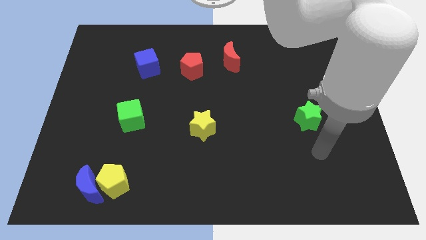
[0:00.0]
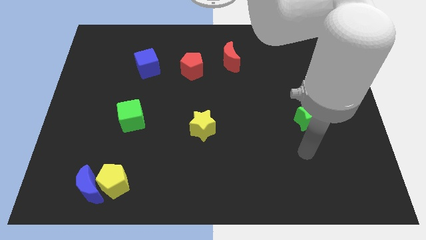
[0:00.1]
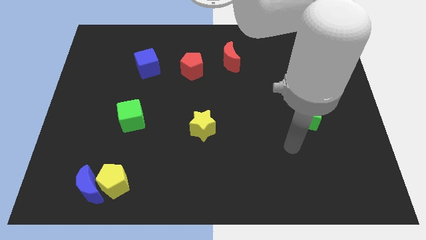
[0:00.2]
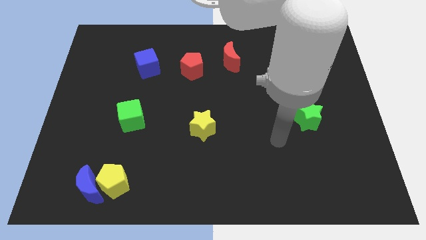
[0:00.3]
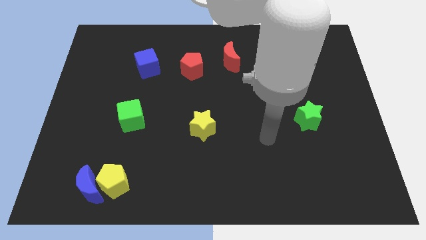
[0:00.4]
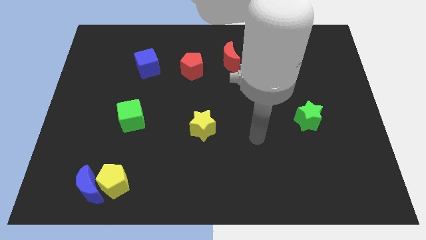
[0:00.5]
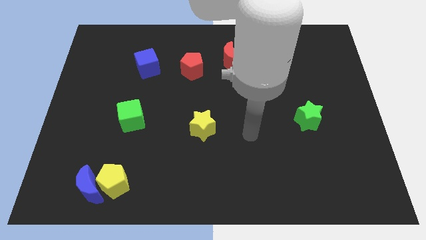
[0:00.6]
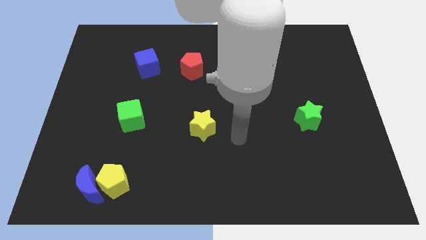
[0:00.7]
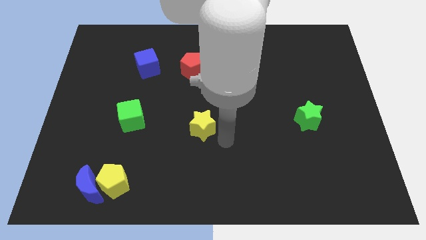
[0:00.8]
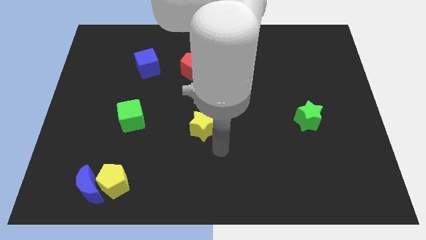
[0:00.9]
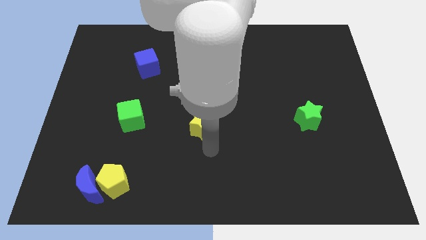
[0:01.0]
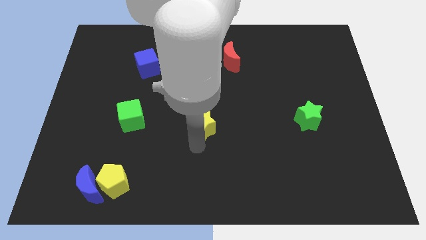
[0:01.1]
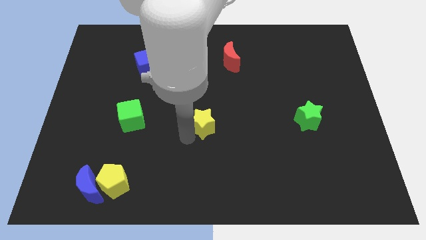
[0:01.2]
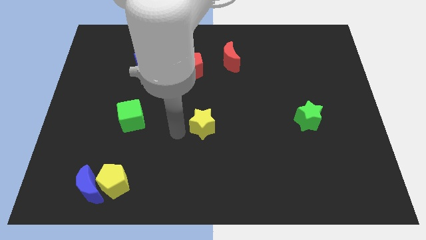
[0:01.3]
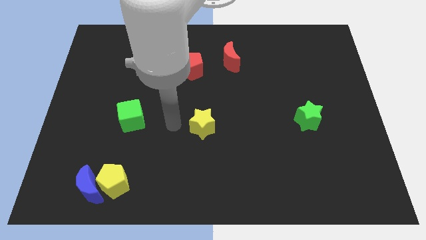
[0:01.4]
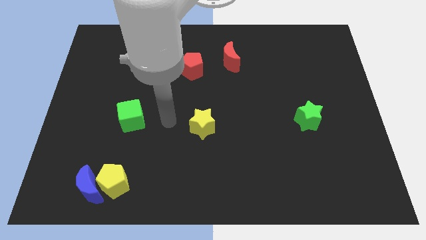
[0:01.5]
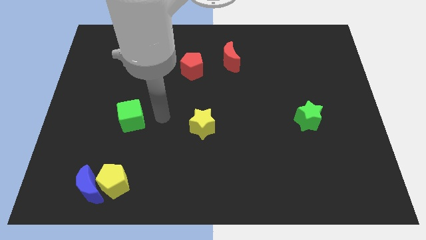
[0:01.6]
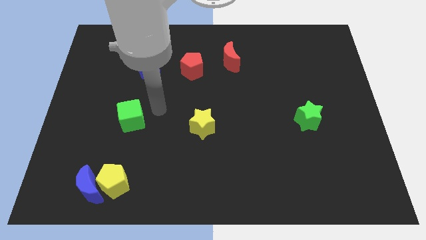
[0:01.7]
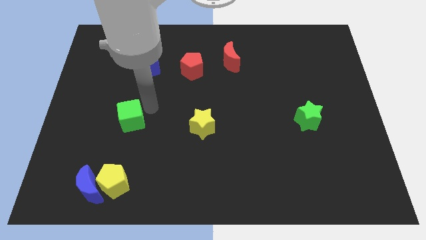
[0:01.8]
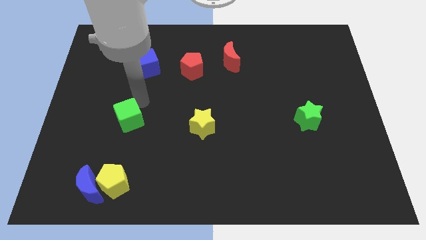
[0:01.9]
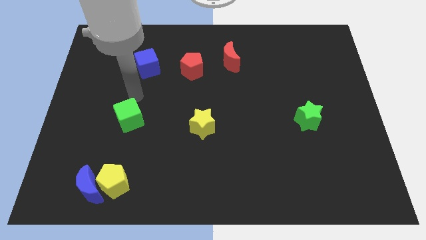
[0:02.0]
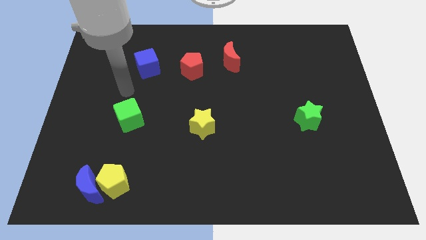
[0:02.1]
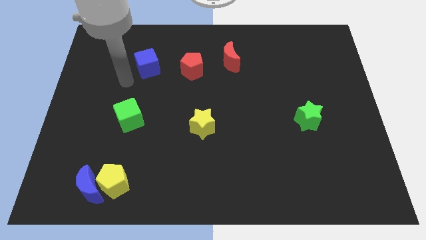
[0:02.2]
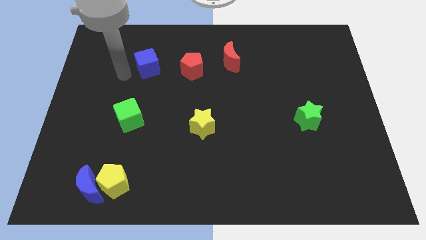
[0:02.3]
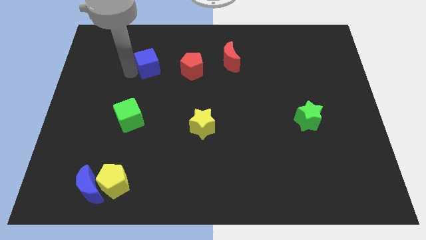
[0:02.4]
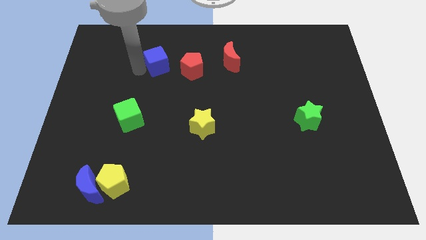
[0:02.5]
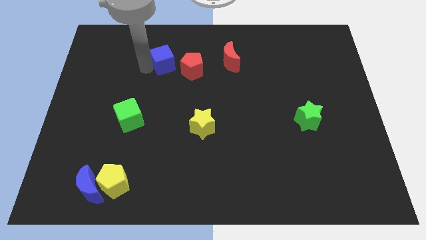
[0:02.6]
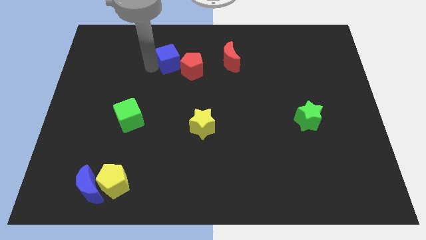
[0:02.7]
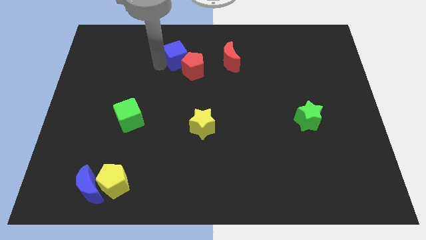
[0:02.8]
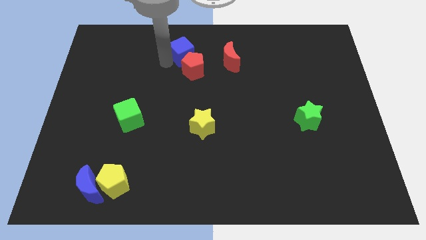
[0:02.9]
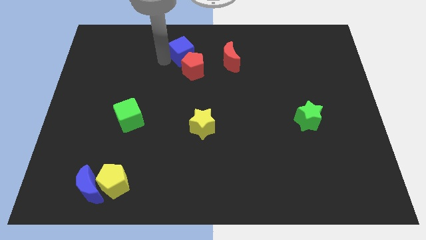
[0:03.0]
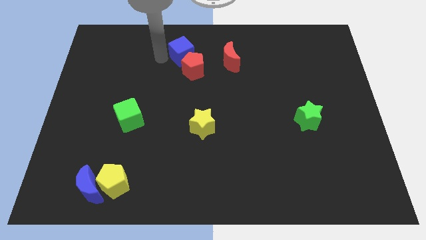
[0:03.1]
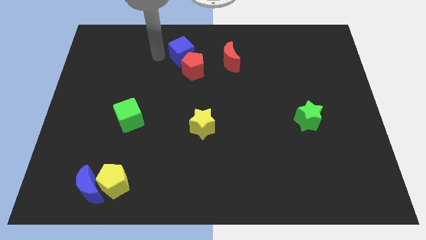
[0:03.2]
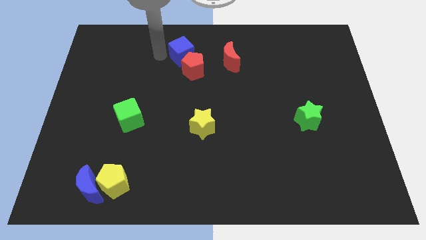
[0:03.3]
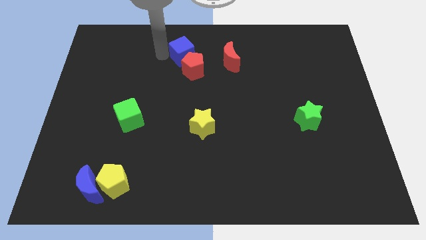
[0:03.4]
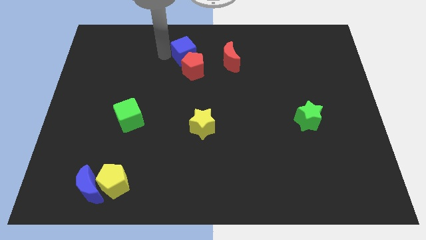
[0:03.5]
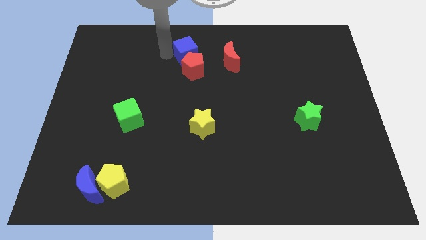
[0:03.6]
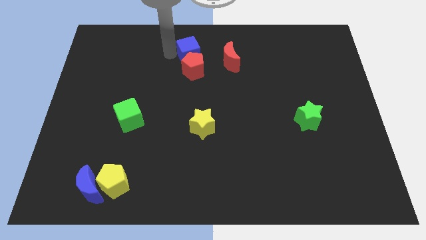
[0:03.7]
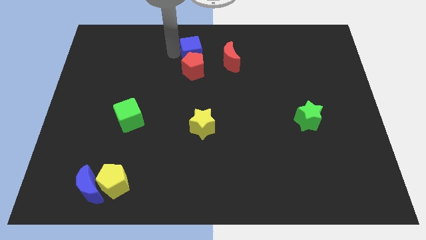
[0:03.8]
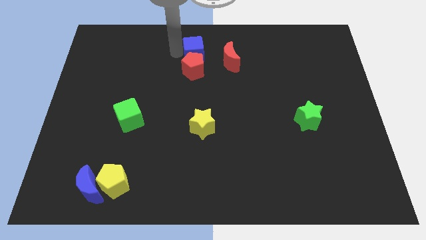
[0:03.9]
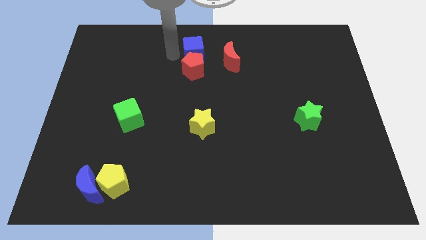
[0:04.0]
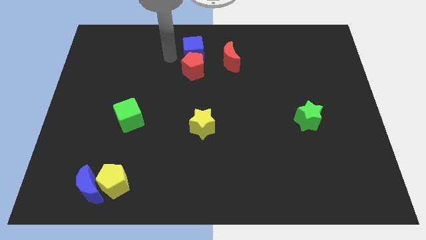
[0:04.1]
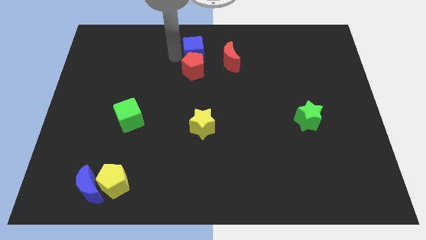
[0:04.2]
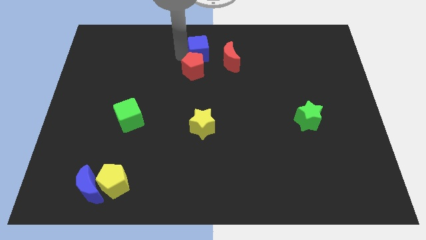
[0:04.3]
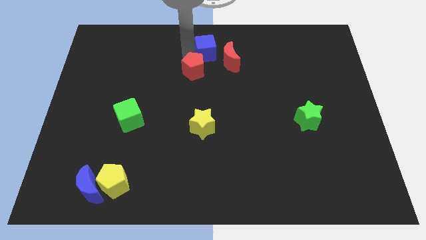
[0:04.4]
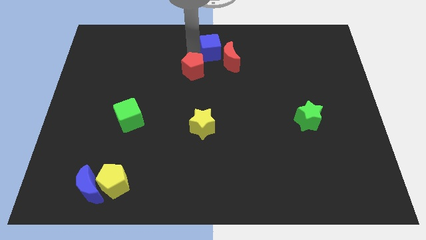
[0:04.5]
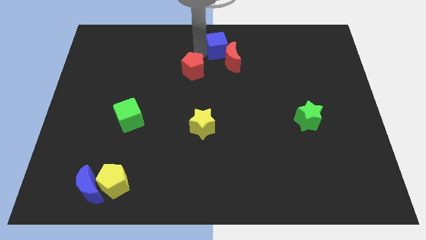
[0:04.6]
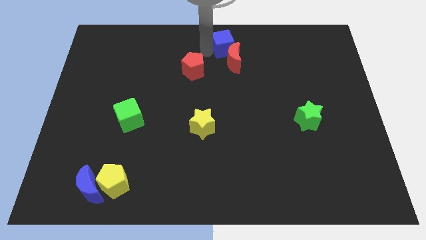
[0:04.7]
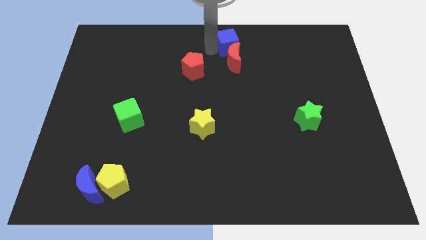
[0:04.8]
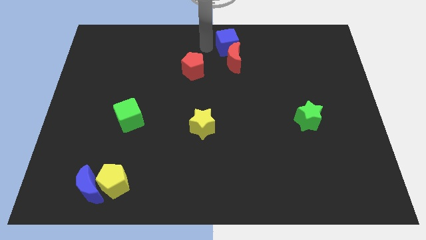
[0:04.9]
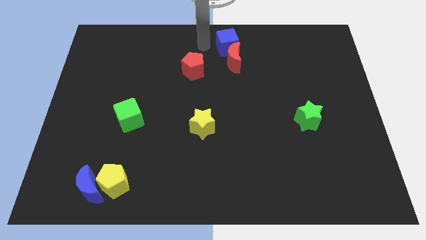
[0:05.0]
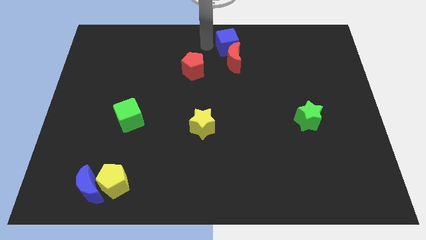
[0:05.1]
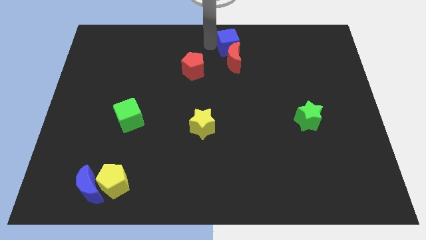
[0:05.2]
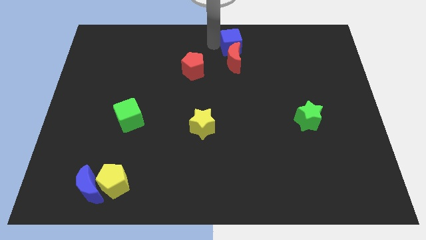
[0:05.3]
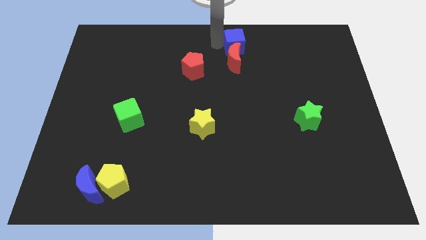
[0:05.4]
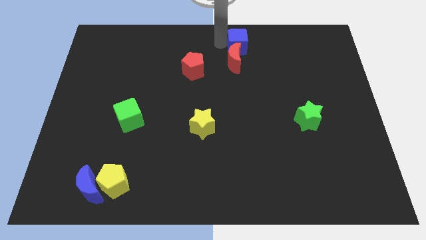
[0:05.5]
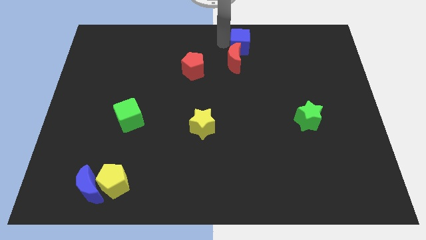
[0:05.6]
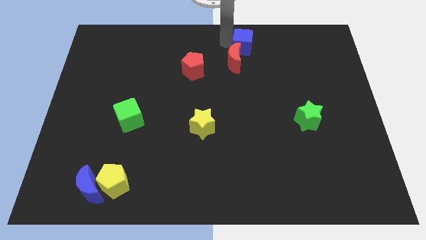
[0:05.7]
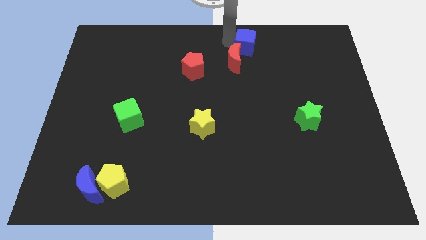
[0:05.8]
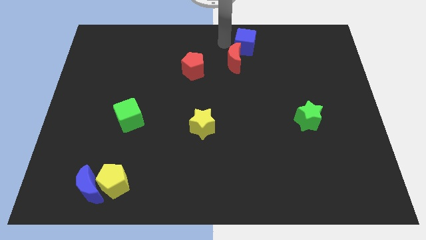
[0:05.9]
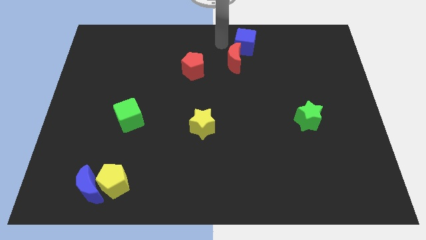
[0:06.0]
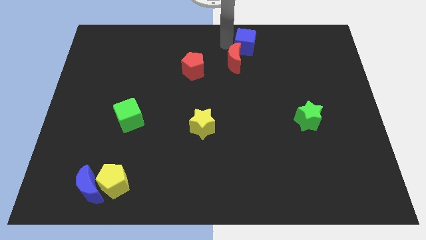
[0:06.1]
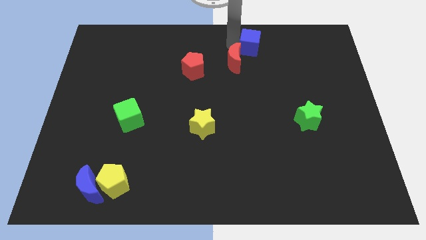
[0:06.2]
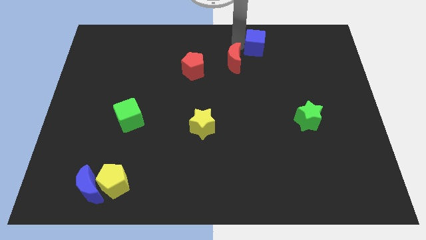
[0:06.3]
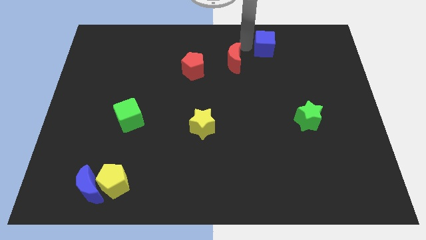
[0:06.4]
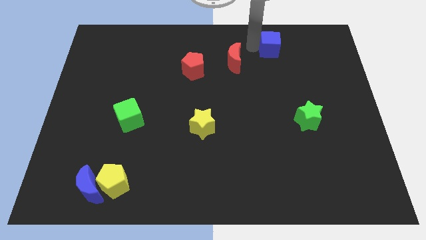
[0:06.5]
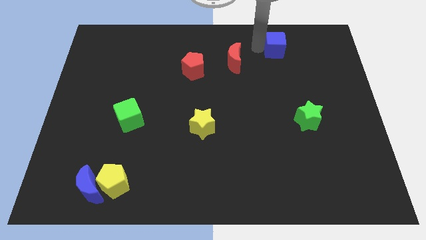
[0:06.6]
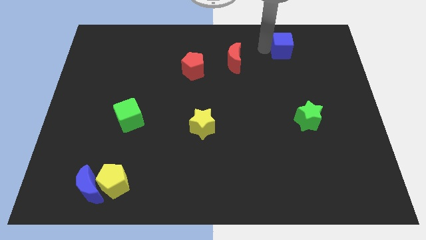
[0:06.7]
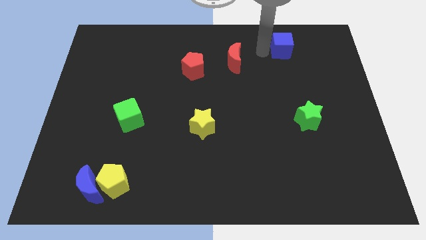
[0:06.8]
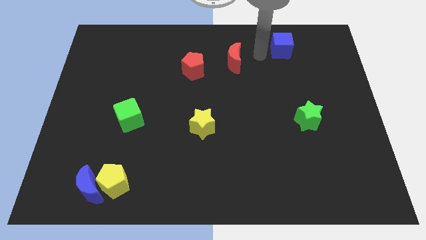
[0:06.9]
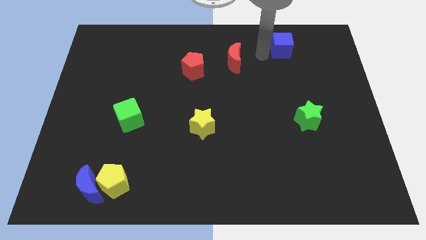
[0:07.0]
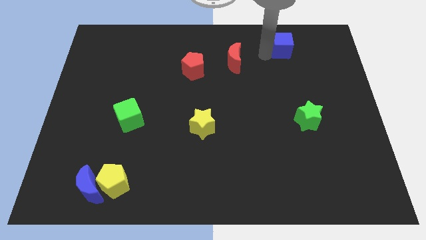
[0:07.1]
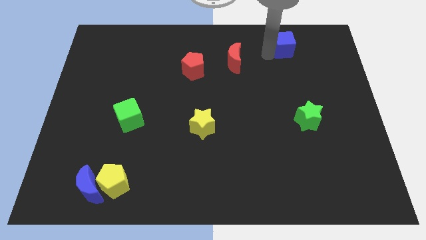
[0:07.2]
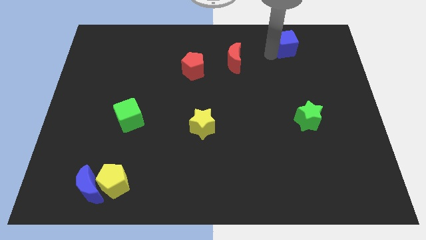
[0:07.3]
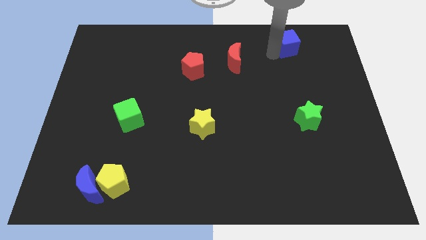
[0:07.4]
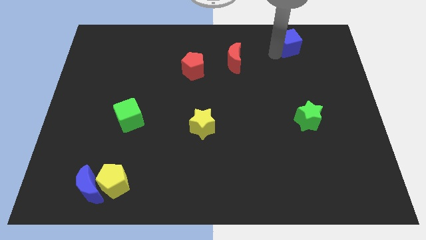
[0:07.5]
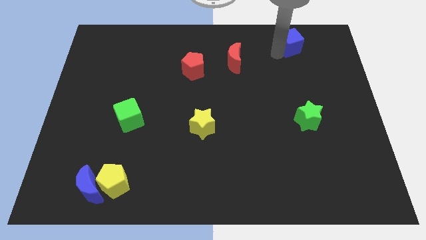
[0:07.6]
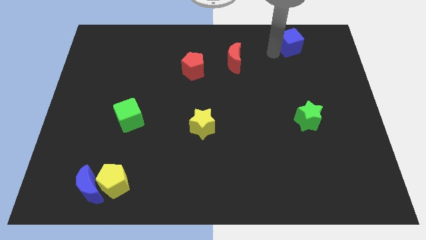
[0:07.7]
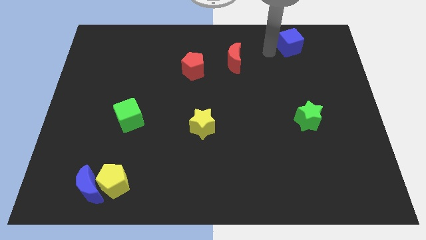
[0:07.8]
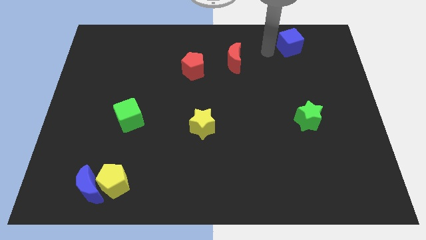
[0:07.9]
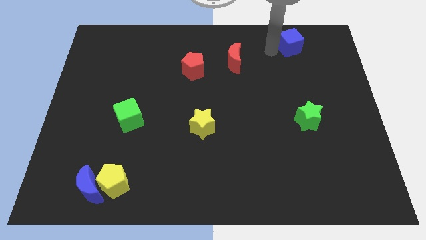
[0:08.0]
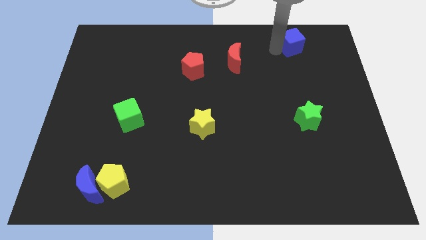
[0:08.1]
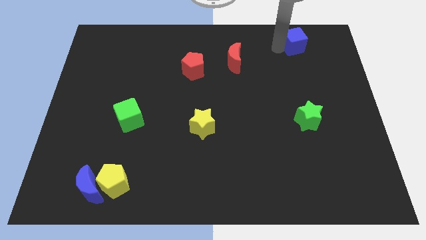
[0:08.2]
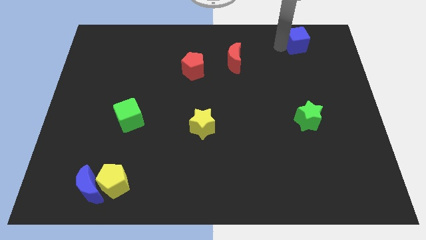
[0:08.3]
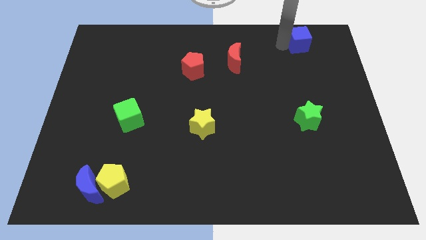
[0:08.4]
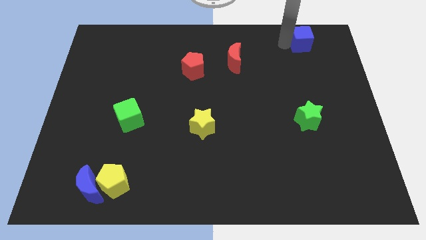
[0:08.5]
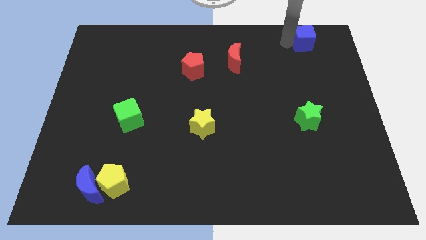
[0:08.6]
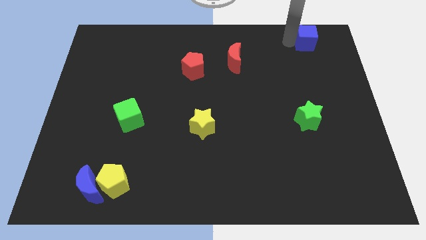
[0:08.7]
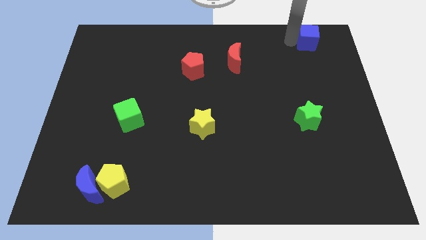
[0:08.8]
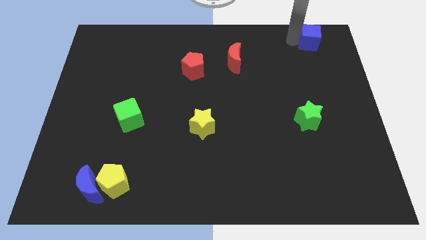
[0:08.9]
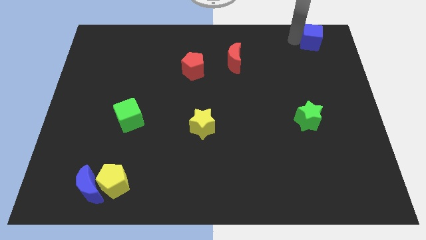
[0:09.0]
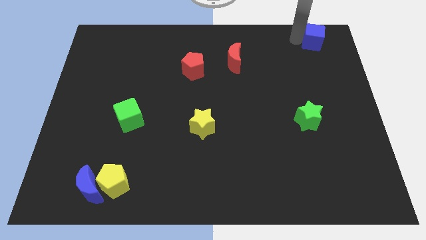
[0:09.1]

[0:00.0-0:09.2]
push the blue cube to the upper right corner
